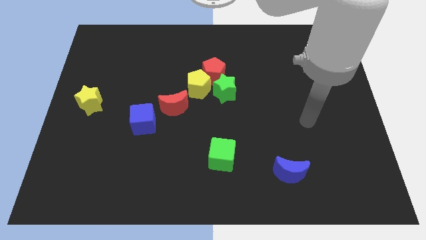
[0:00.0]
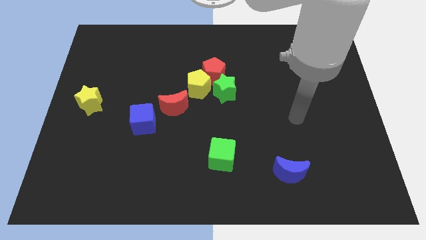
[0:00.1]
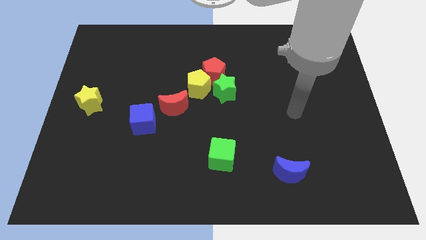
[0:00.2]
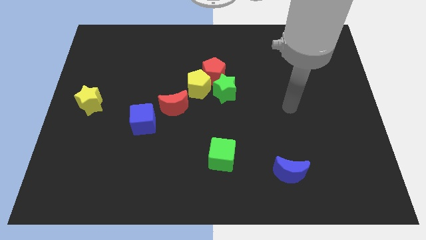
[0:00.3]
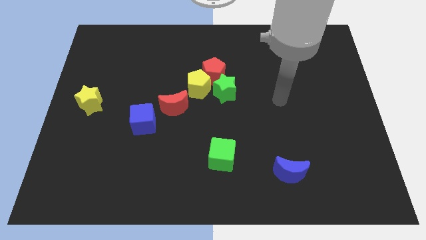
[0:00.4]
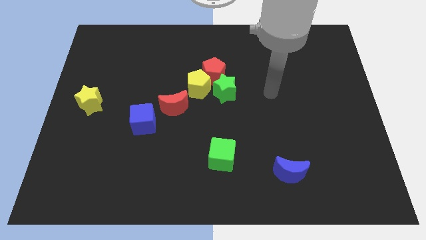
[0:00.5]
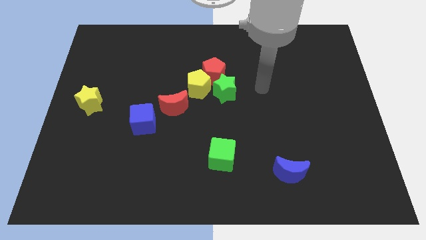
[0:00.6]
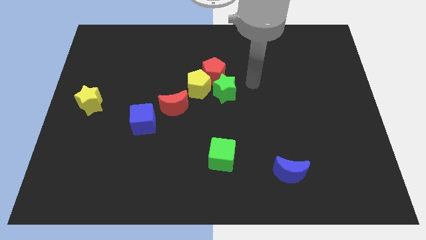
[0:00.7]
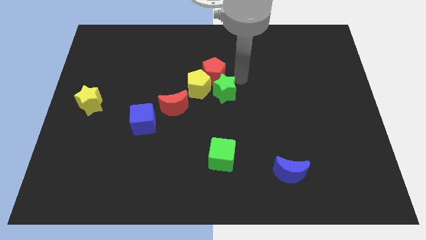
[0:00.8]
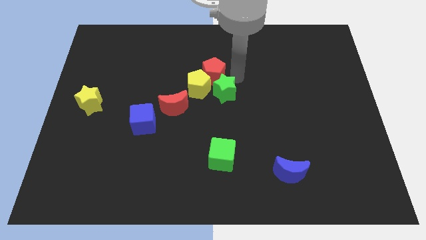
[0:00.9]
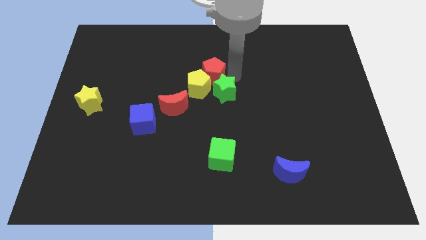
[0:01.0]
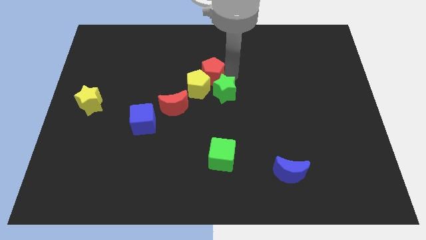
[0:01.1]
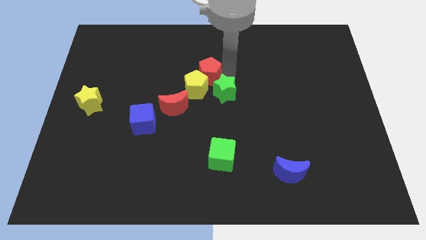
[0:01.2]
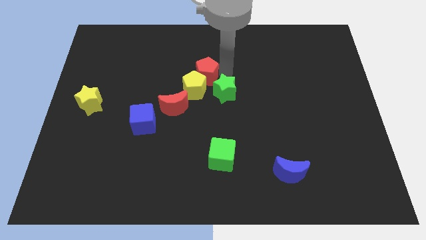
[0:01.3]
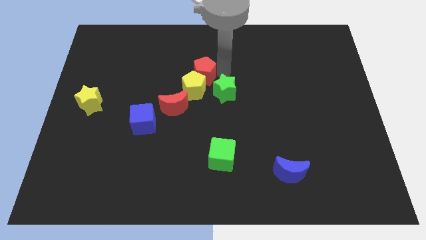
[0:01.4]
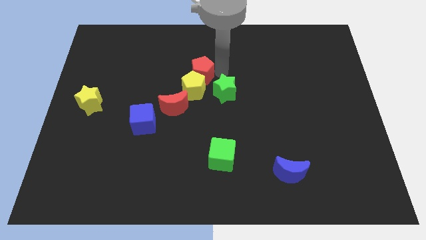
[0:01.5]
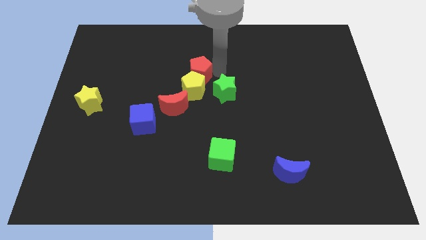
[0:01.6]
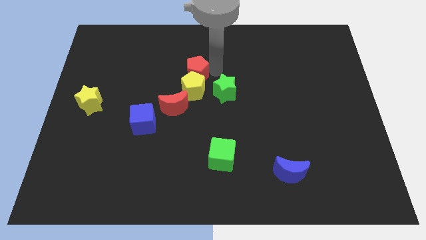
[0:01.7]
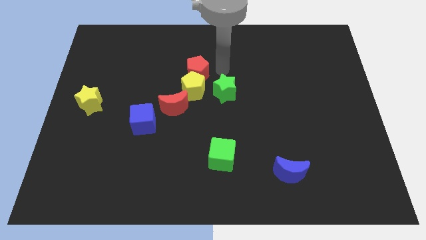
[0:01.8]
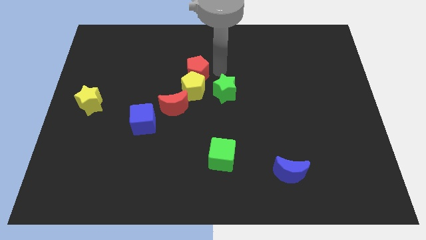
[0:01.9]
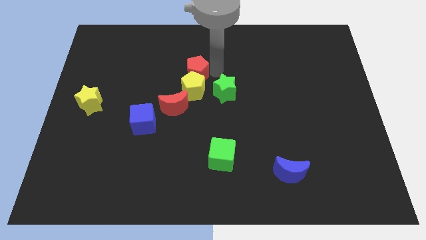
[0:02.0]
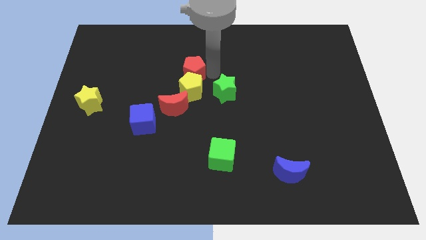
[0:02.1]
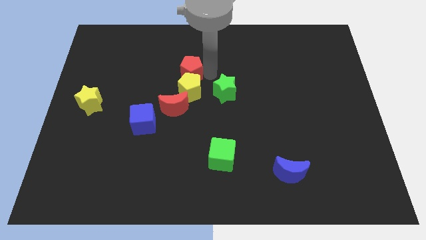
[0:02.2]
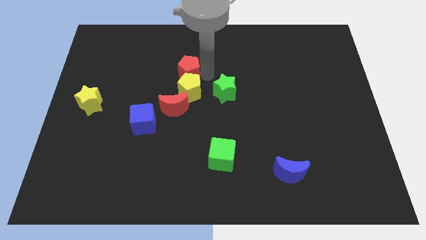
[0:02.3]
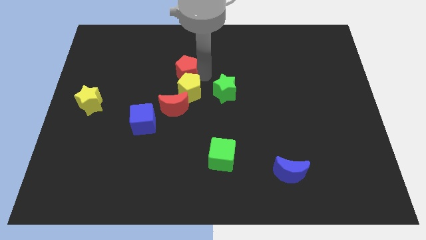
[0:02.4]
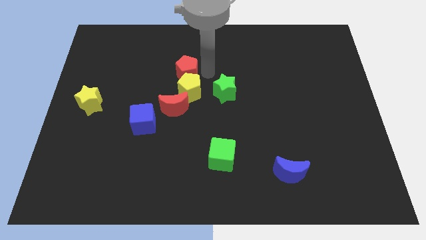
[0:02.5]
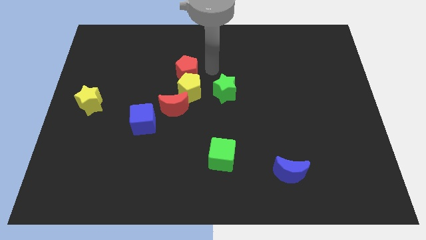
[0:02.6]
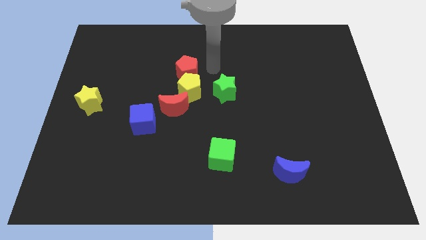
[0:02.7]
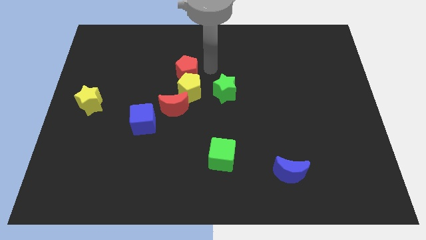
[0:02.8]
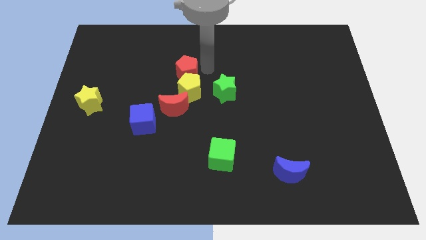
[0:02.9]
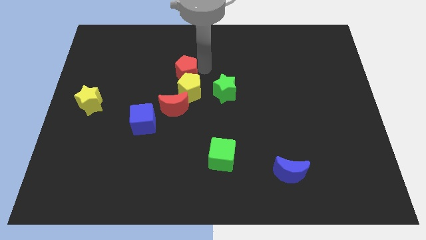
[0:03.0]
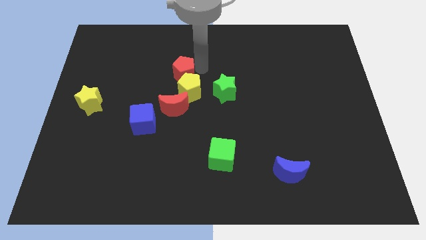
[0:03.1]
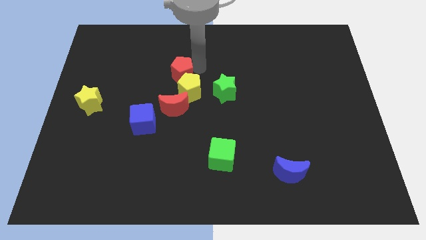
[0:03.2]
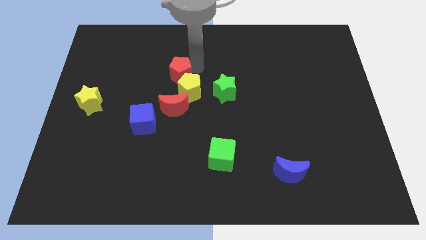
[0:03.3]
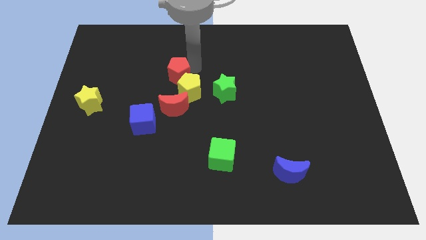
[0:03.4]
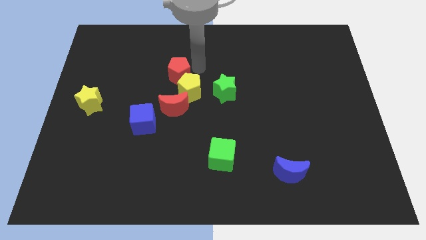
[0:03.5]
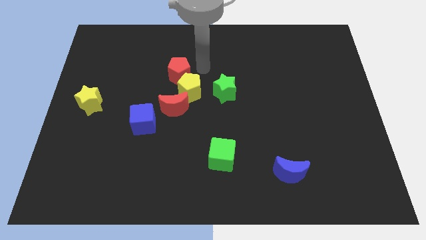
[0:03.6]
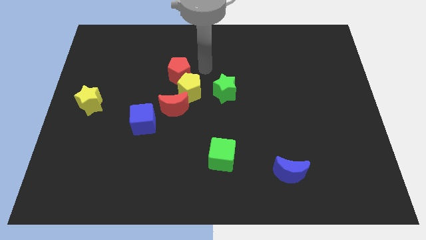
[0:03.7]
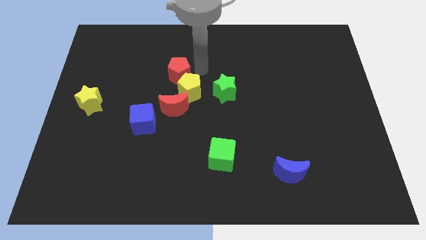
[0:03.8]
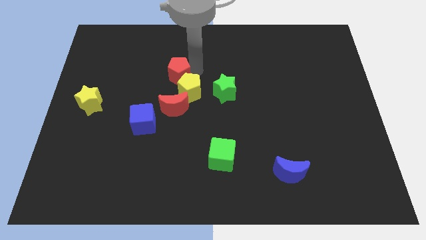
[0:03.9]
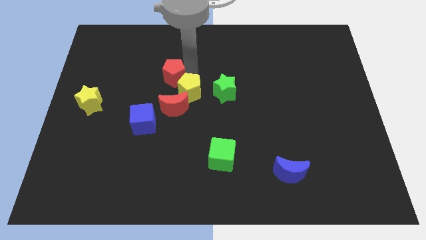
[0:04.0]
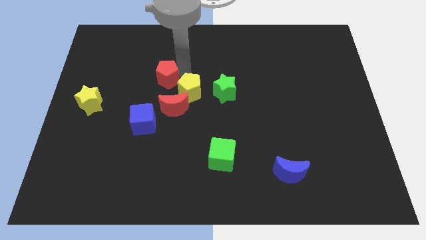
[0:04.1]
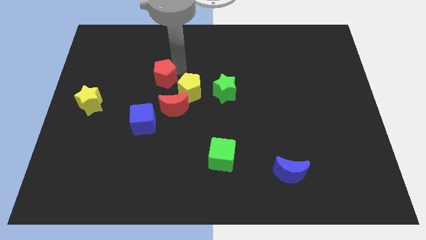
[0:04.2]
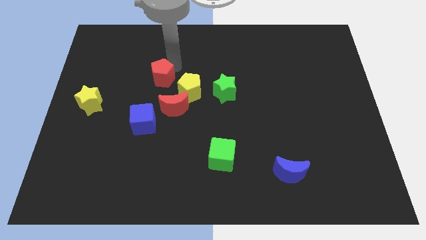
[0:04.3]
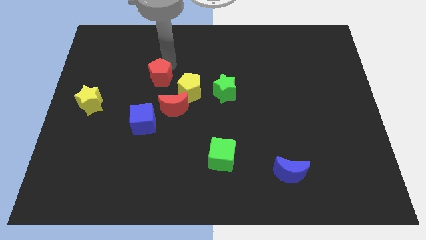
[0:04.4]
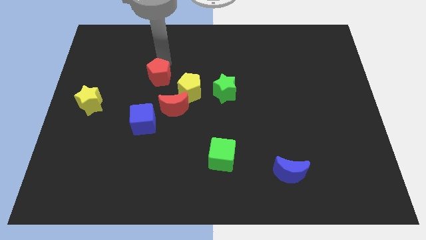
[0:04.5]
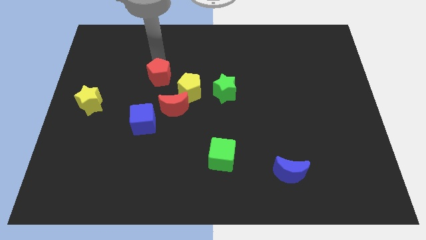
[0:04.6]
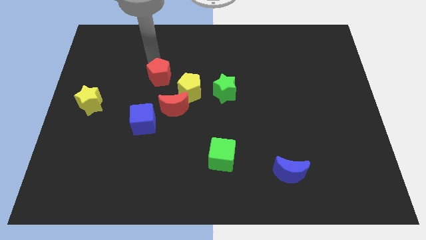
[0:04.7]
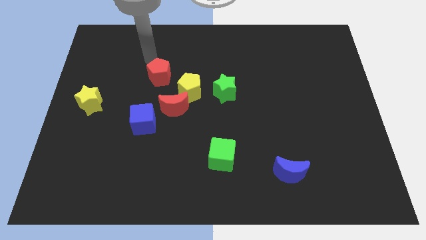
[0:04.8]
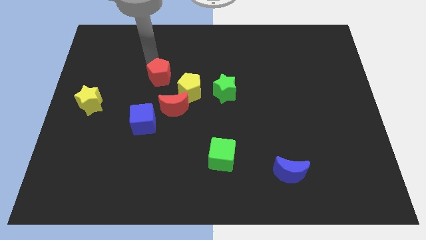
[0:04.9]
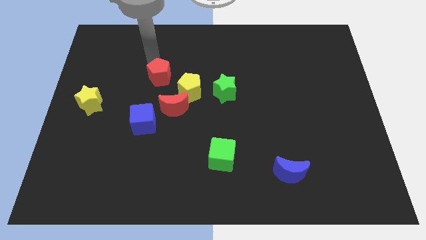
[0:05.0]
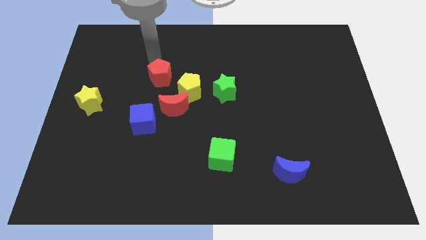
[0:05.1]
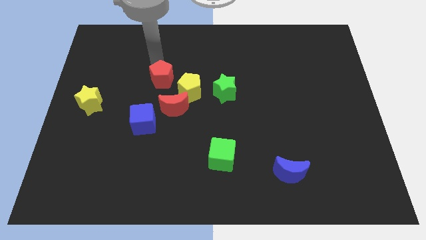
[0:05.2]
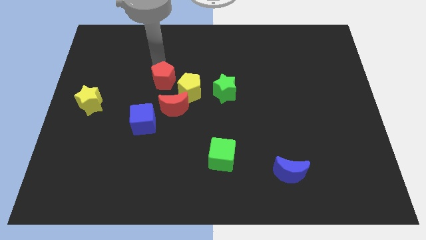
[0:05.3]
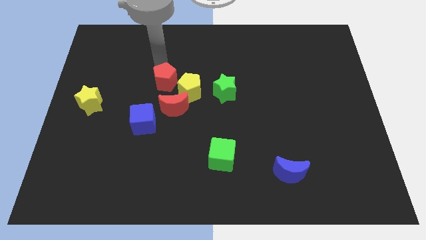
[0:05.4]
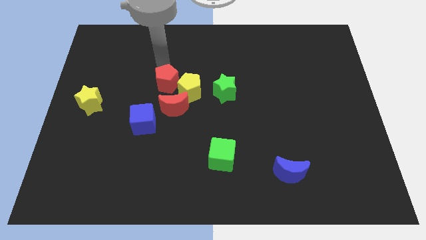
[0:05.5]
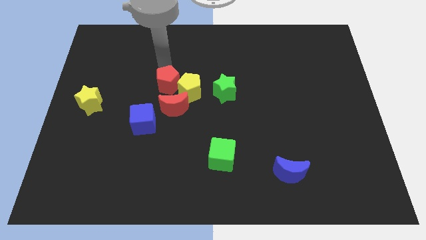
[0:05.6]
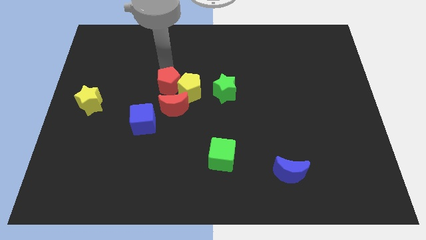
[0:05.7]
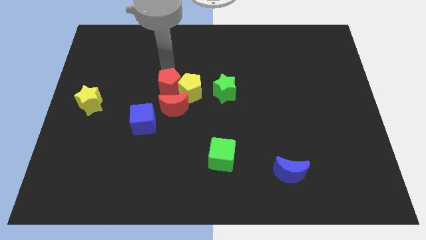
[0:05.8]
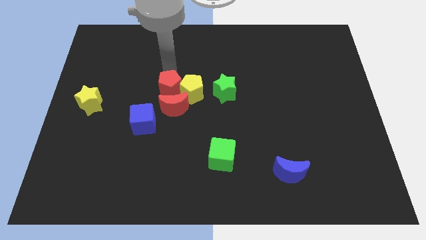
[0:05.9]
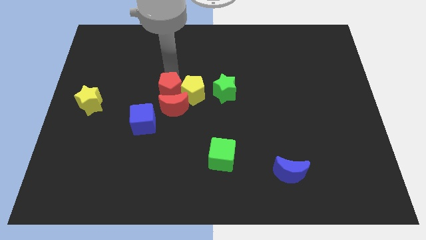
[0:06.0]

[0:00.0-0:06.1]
move the red pentagon to the red moon

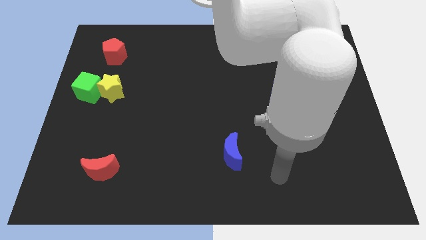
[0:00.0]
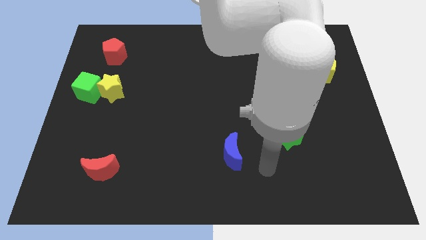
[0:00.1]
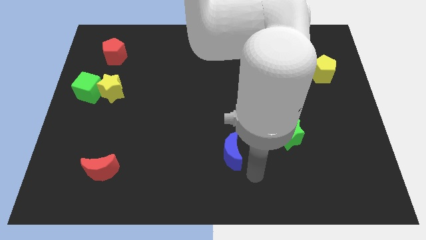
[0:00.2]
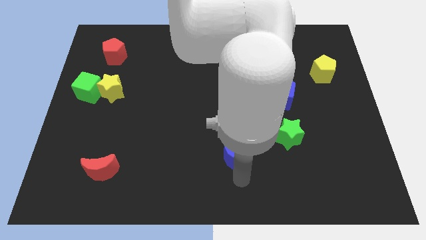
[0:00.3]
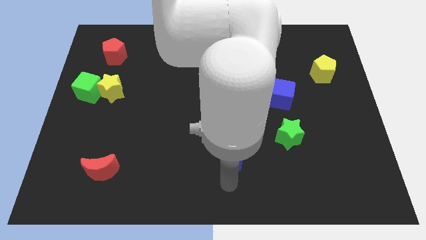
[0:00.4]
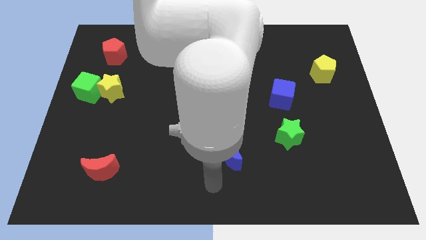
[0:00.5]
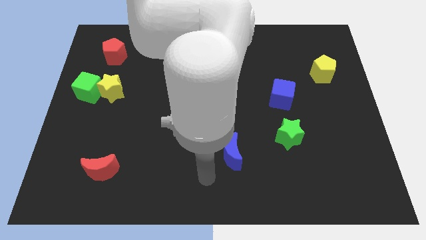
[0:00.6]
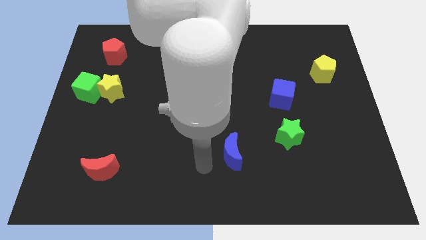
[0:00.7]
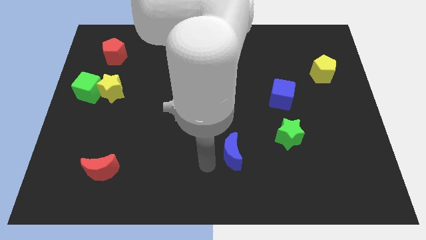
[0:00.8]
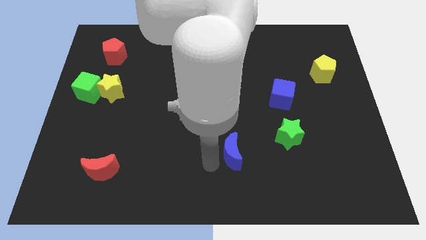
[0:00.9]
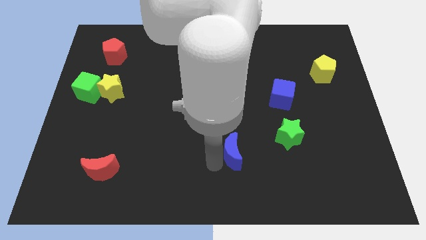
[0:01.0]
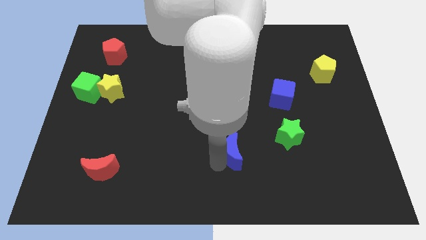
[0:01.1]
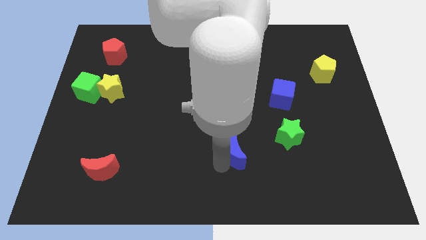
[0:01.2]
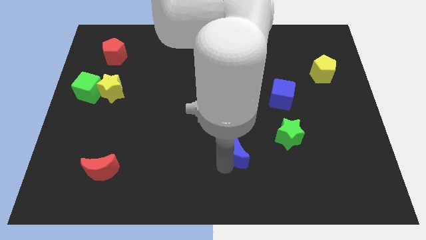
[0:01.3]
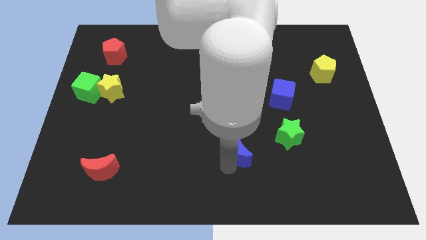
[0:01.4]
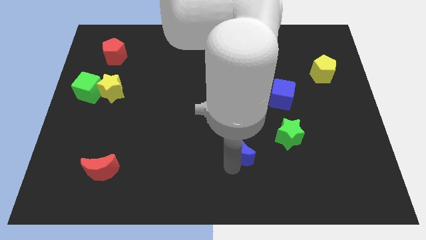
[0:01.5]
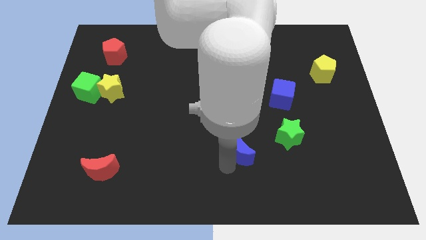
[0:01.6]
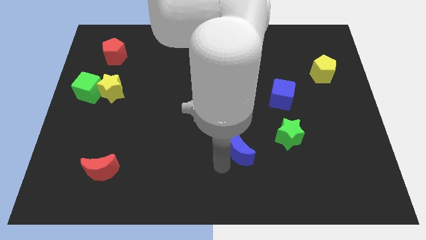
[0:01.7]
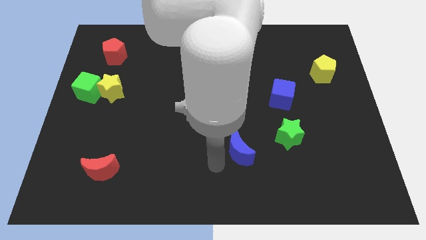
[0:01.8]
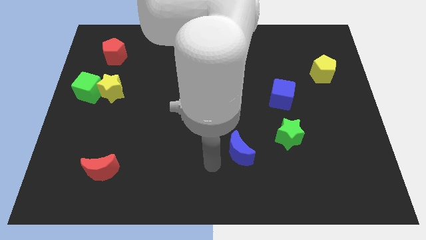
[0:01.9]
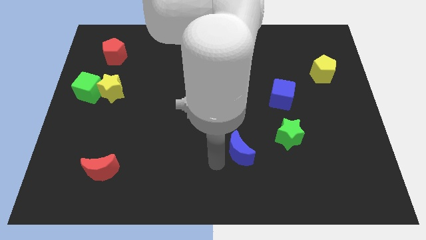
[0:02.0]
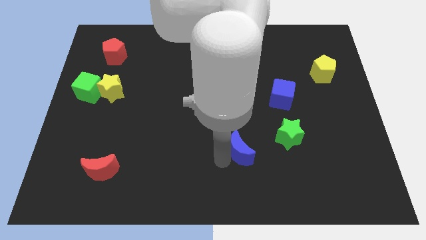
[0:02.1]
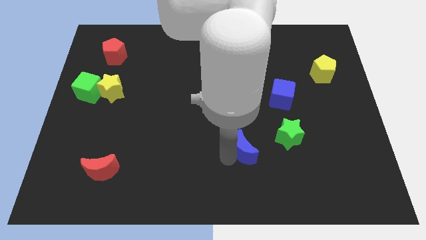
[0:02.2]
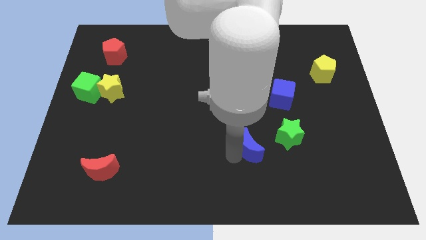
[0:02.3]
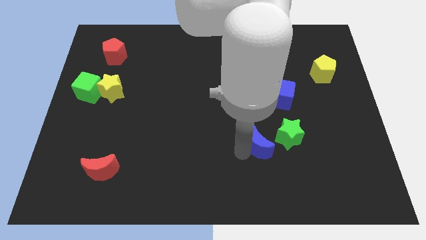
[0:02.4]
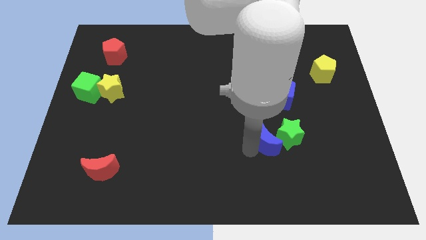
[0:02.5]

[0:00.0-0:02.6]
push the blue moon close to the green star
